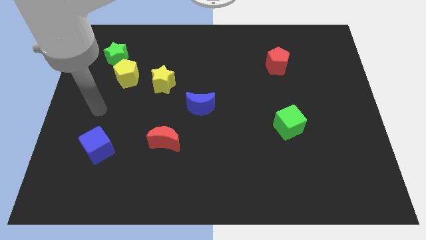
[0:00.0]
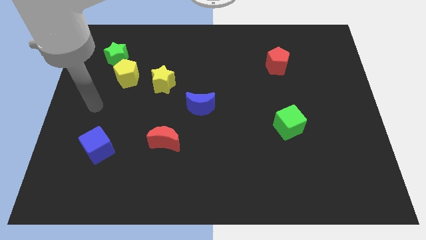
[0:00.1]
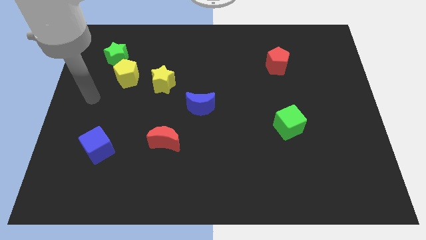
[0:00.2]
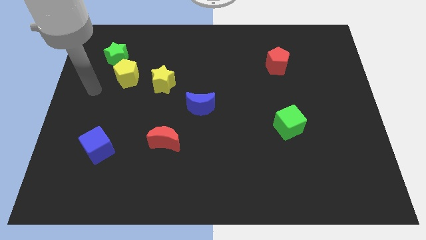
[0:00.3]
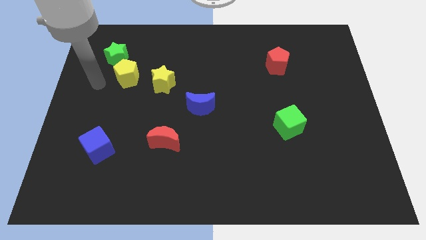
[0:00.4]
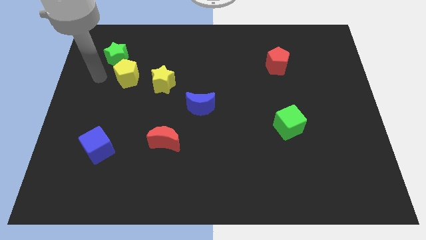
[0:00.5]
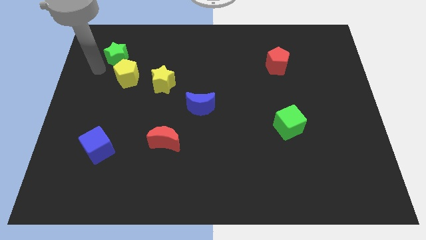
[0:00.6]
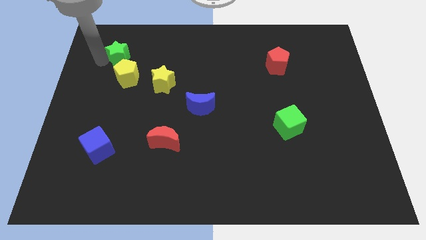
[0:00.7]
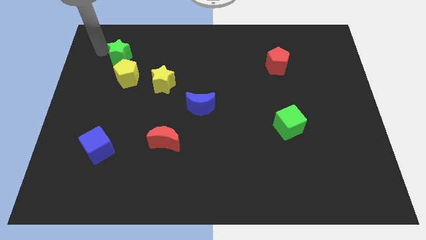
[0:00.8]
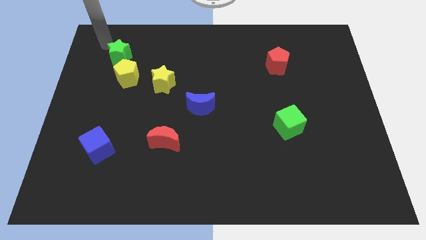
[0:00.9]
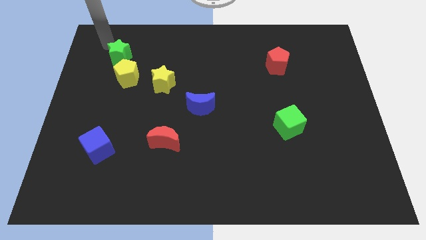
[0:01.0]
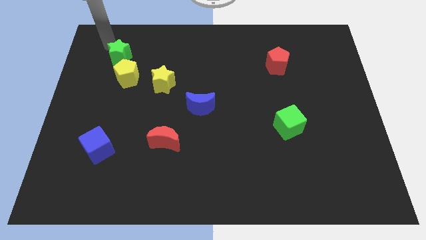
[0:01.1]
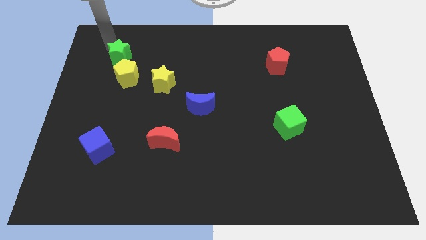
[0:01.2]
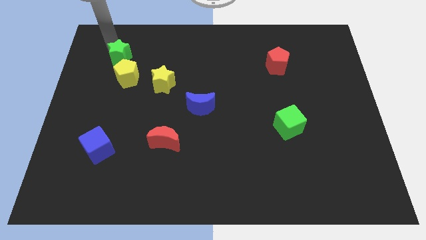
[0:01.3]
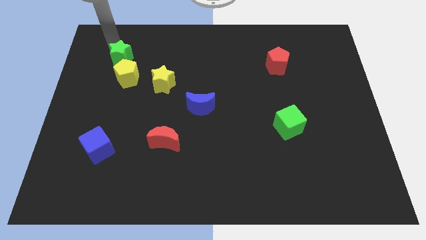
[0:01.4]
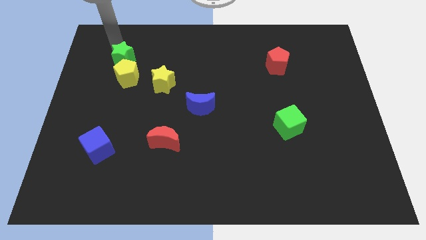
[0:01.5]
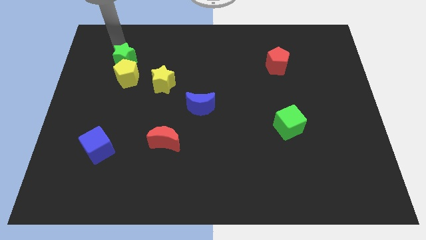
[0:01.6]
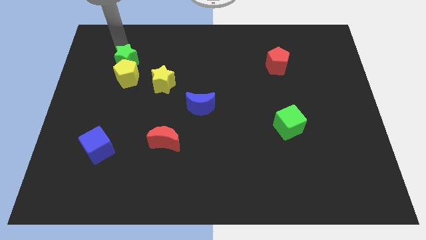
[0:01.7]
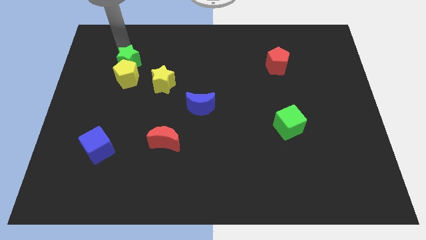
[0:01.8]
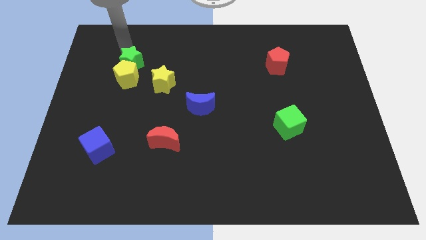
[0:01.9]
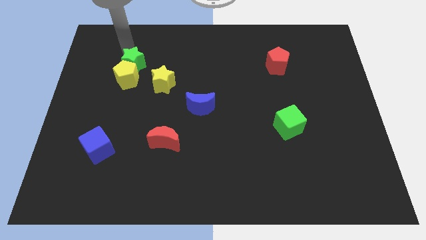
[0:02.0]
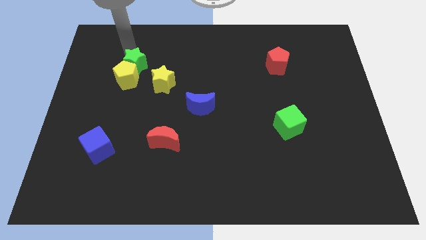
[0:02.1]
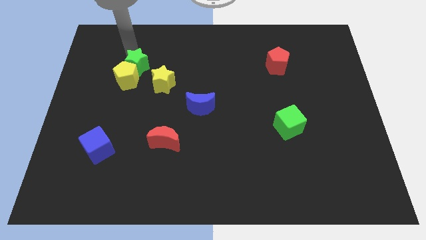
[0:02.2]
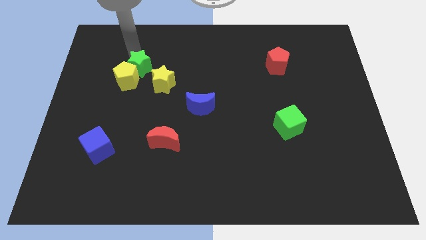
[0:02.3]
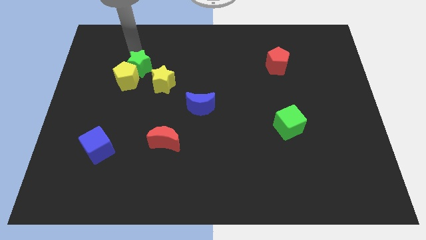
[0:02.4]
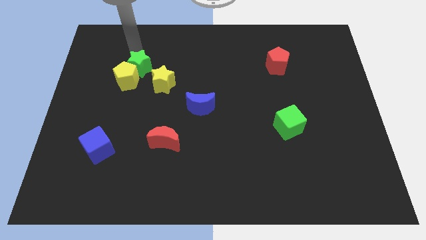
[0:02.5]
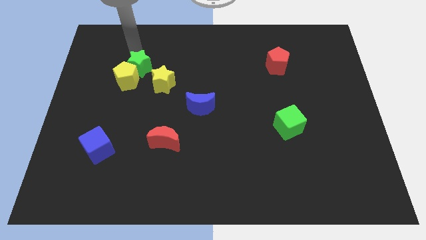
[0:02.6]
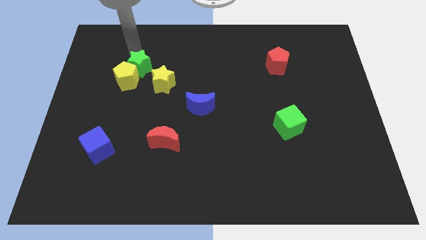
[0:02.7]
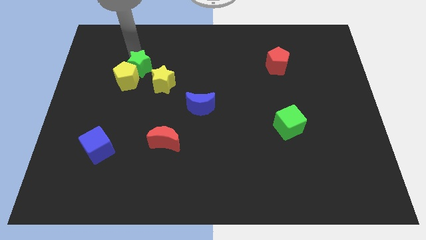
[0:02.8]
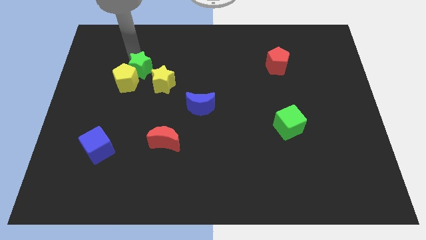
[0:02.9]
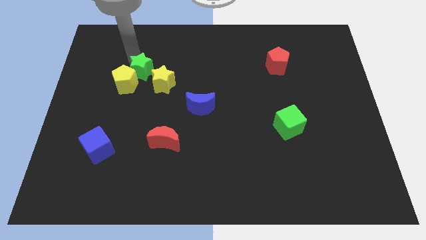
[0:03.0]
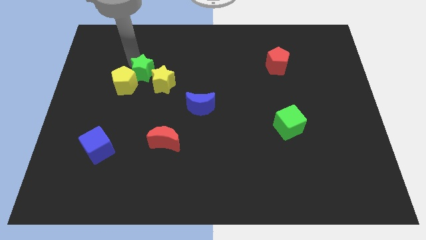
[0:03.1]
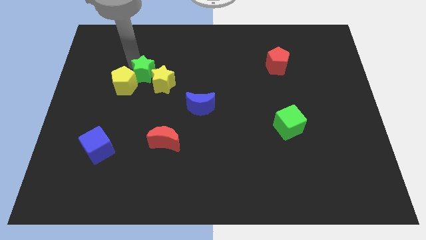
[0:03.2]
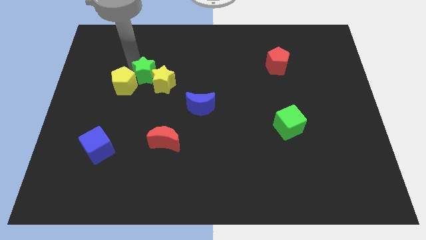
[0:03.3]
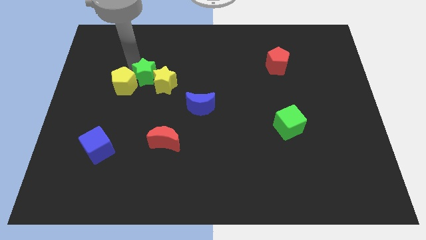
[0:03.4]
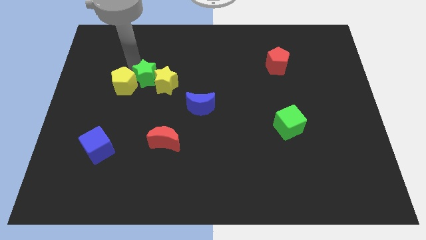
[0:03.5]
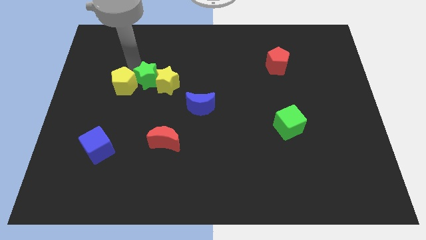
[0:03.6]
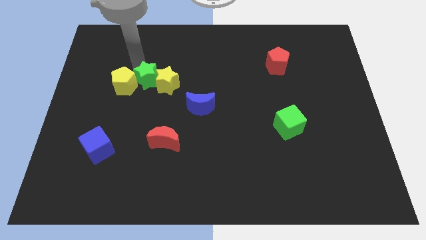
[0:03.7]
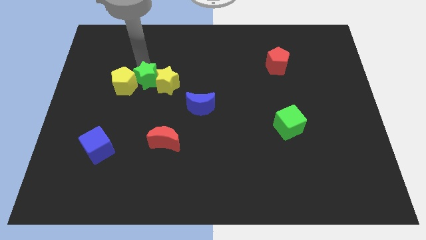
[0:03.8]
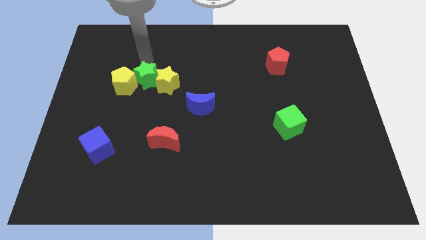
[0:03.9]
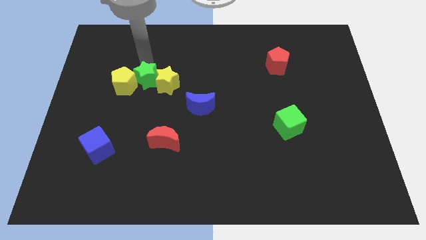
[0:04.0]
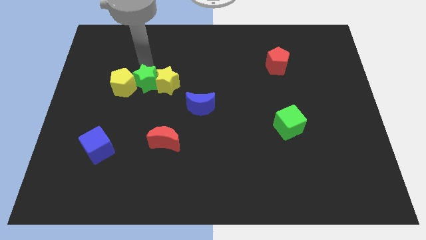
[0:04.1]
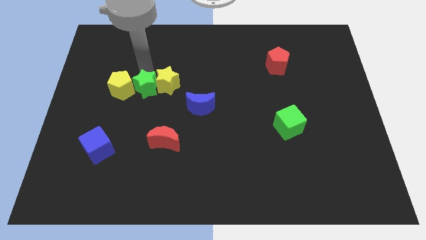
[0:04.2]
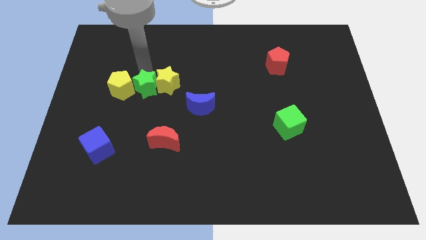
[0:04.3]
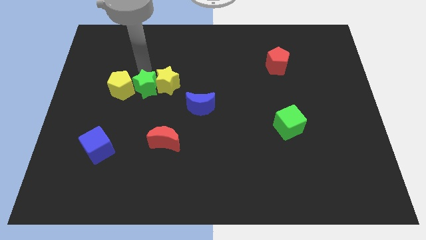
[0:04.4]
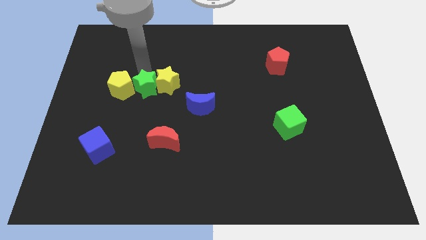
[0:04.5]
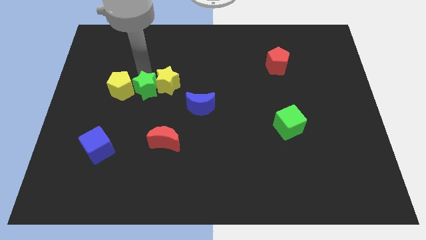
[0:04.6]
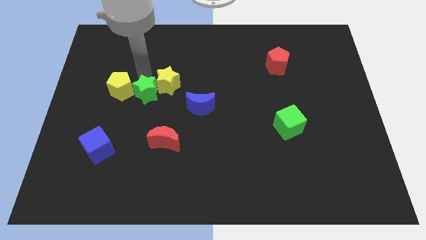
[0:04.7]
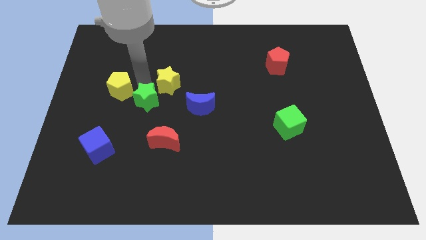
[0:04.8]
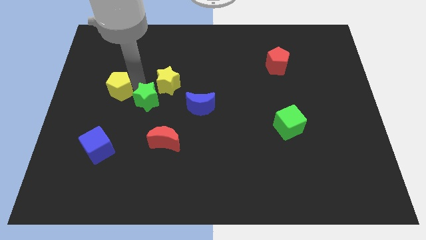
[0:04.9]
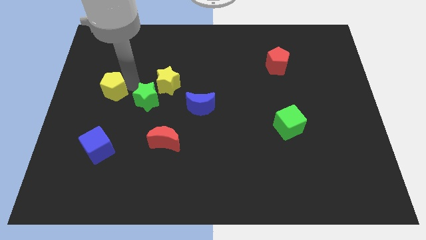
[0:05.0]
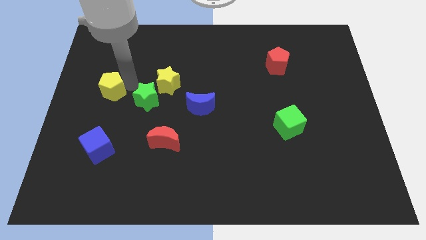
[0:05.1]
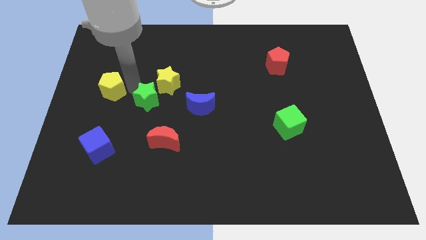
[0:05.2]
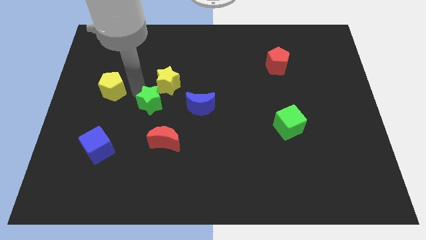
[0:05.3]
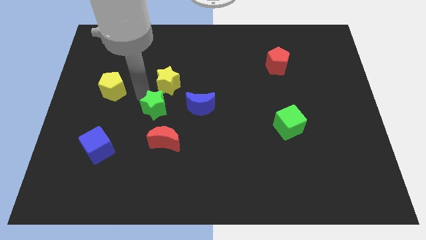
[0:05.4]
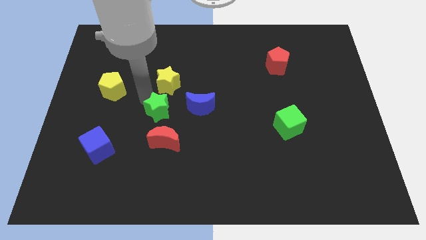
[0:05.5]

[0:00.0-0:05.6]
push the green star down and right diagonally

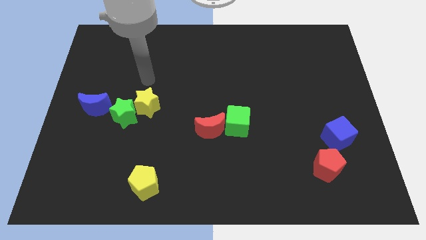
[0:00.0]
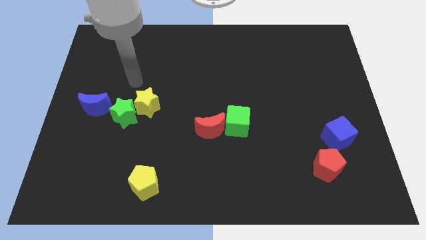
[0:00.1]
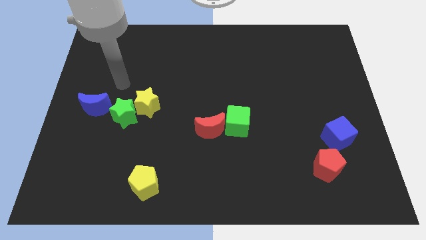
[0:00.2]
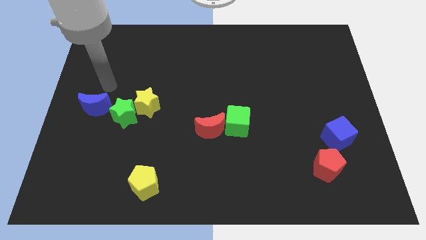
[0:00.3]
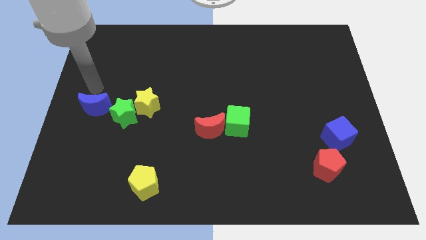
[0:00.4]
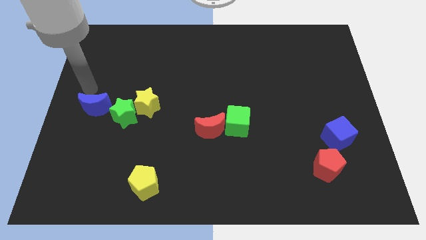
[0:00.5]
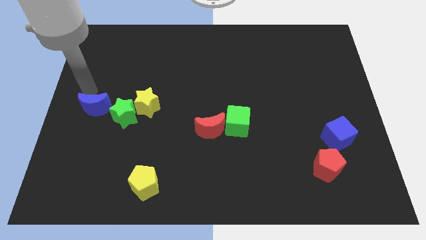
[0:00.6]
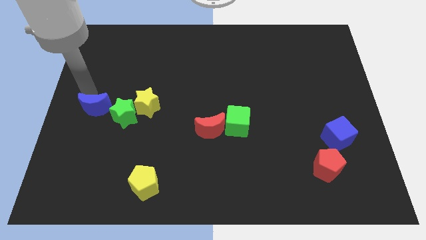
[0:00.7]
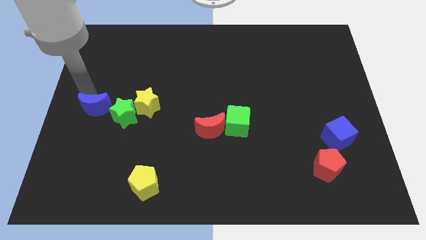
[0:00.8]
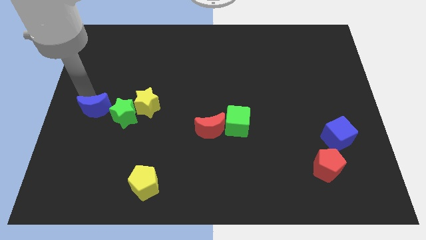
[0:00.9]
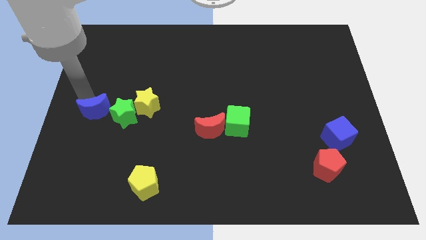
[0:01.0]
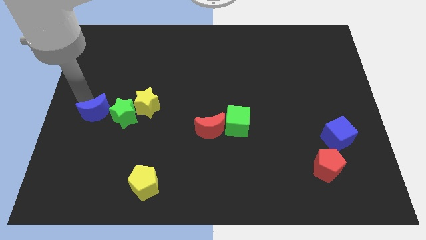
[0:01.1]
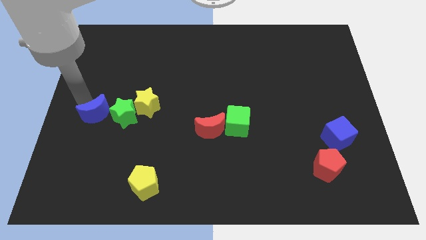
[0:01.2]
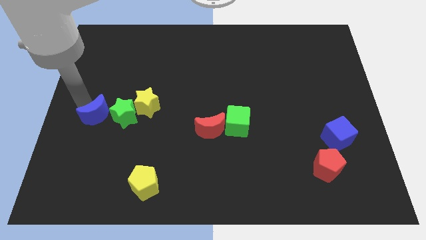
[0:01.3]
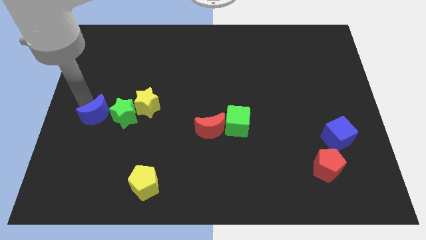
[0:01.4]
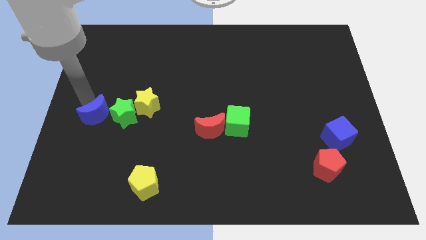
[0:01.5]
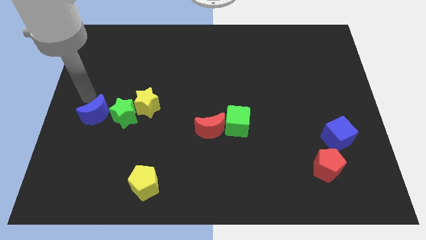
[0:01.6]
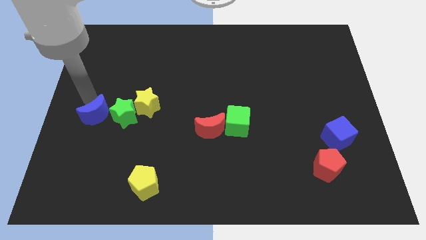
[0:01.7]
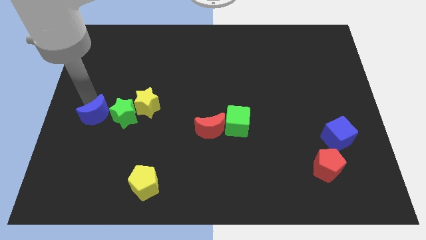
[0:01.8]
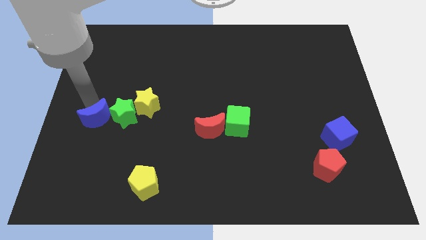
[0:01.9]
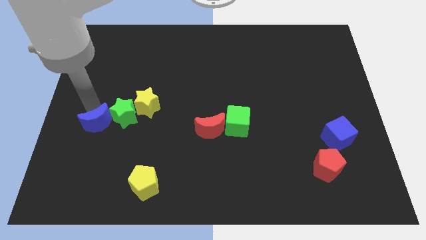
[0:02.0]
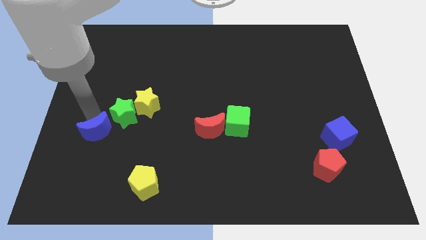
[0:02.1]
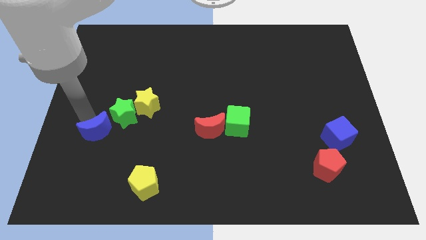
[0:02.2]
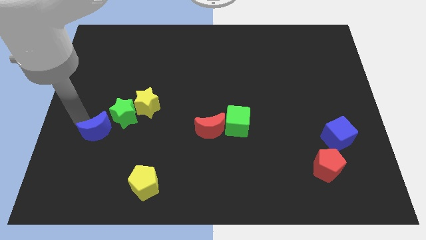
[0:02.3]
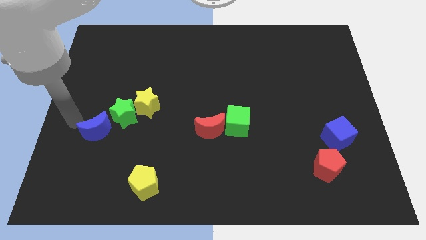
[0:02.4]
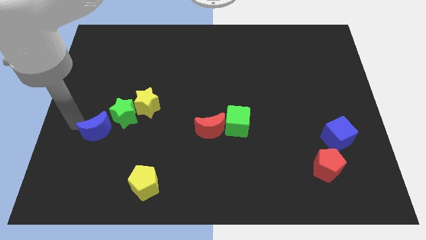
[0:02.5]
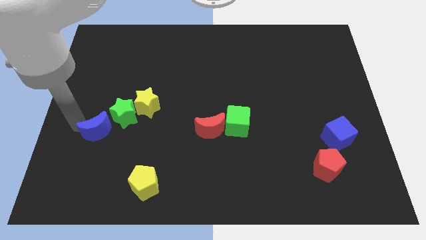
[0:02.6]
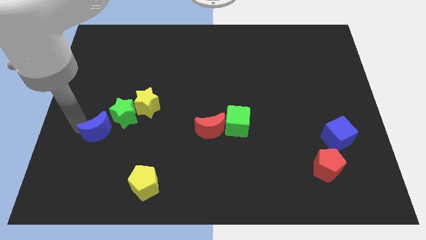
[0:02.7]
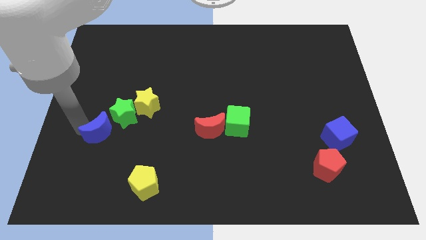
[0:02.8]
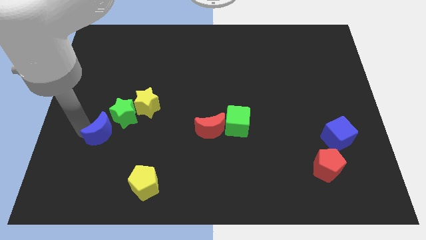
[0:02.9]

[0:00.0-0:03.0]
push the blue moon down and right slightly
